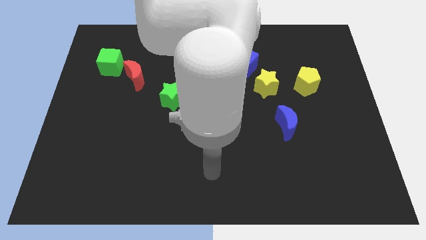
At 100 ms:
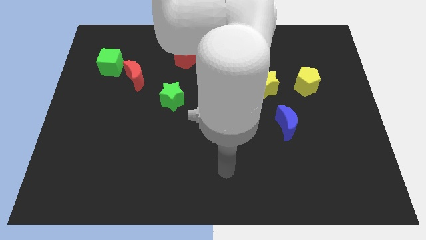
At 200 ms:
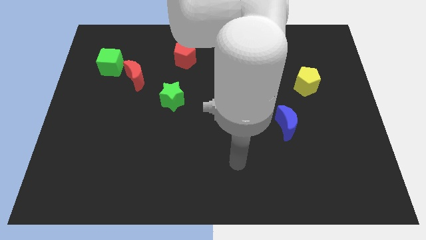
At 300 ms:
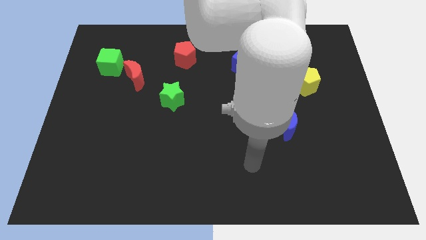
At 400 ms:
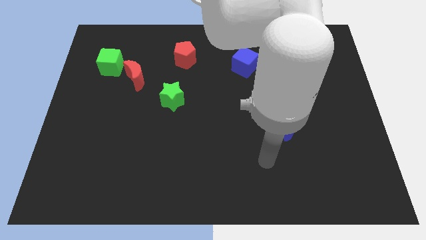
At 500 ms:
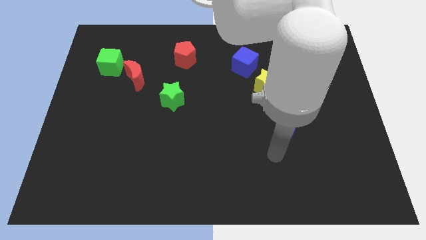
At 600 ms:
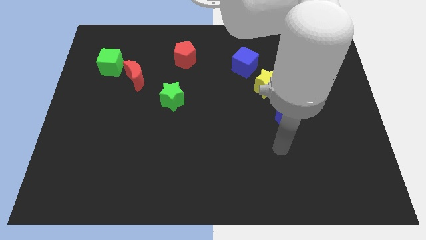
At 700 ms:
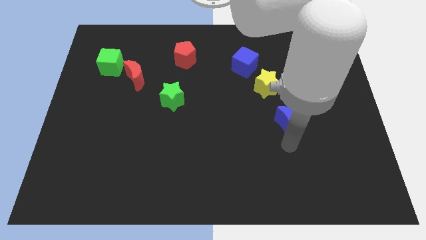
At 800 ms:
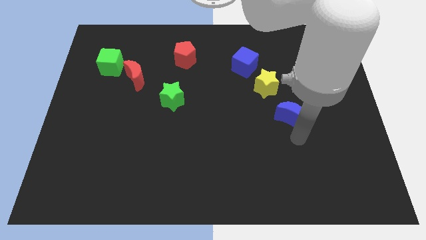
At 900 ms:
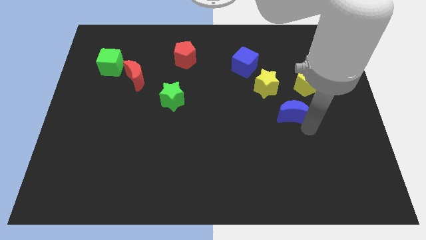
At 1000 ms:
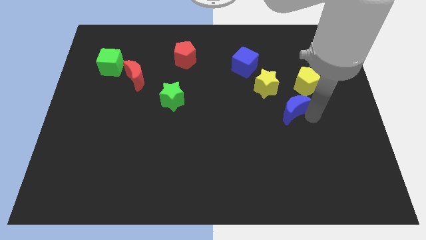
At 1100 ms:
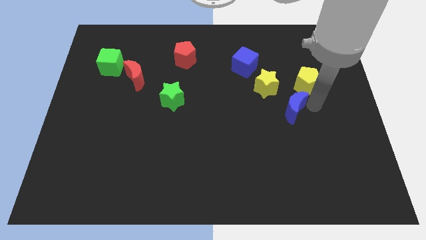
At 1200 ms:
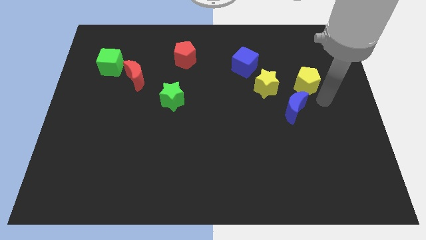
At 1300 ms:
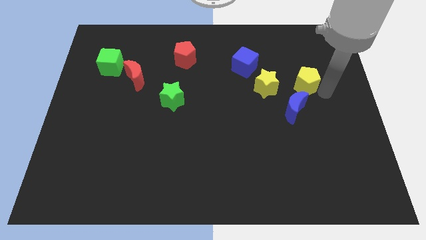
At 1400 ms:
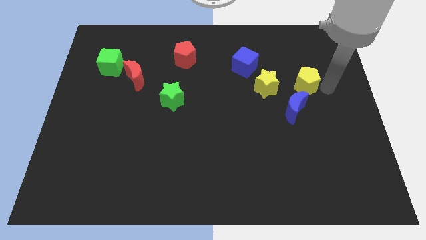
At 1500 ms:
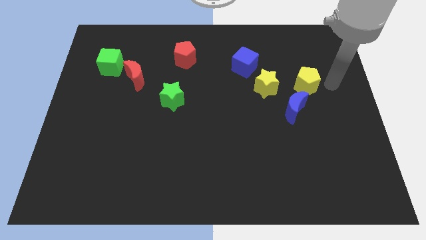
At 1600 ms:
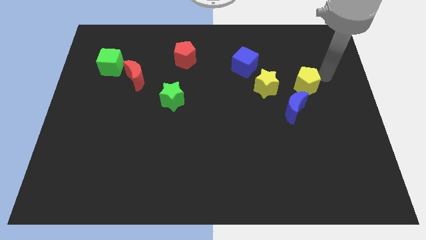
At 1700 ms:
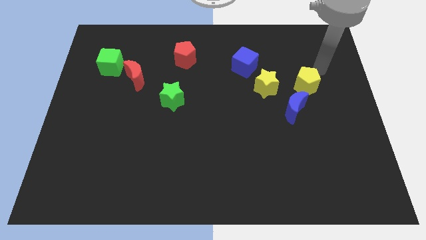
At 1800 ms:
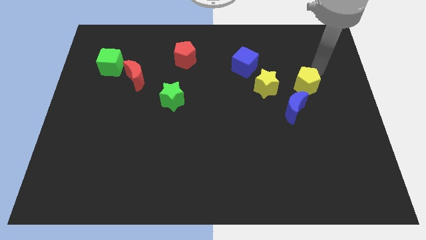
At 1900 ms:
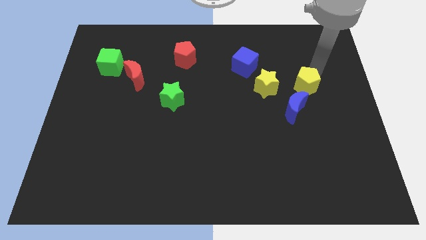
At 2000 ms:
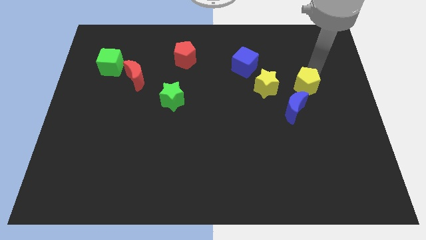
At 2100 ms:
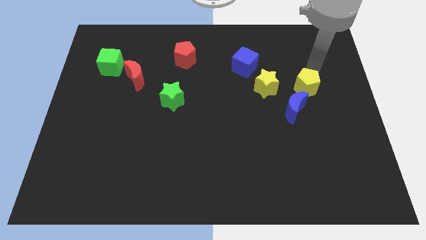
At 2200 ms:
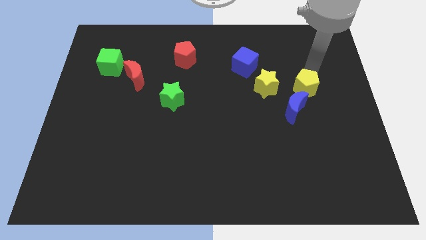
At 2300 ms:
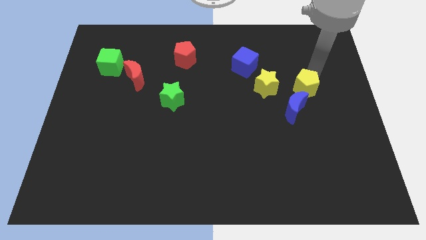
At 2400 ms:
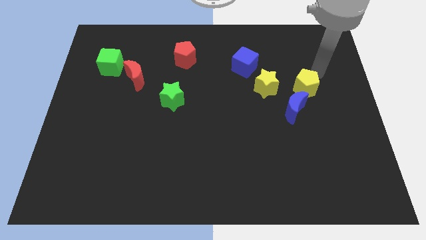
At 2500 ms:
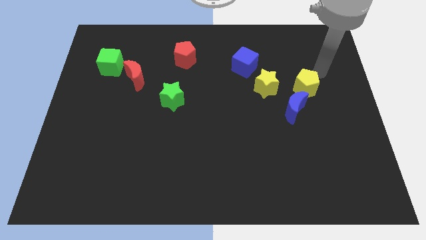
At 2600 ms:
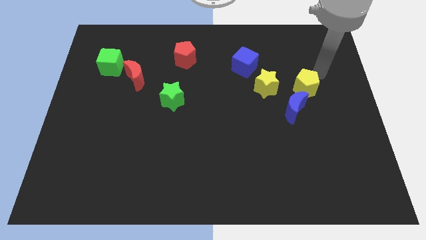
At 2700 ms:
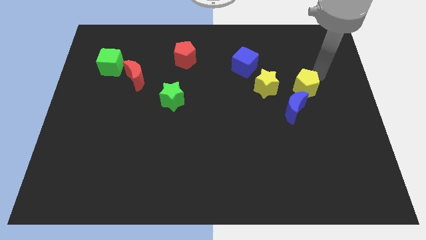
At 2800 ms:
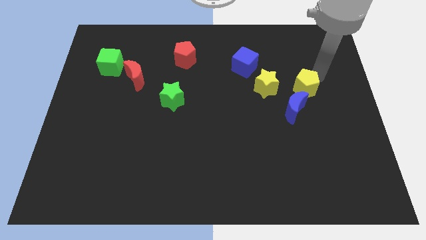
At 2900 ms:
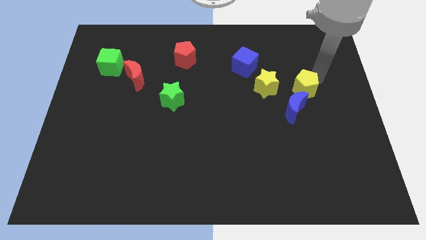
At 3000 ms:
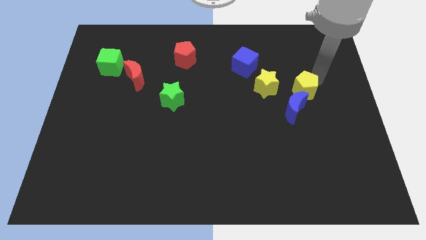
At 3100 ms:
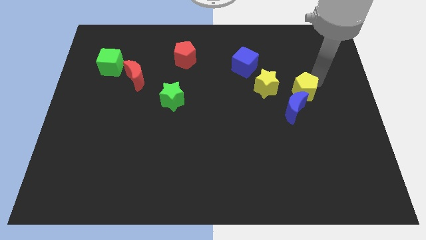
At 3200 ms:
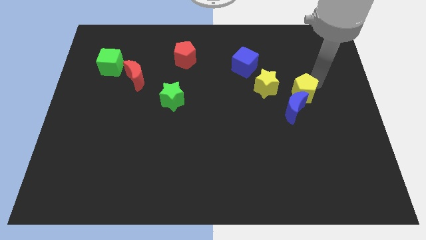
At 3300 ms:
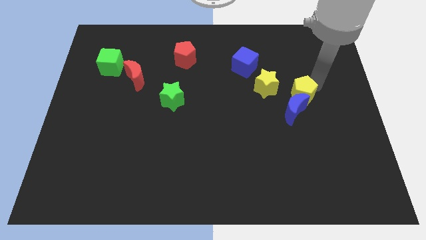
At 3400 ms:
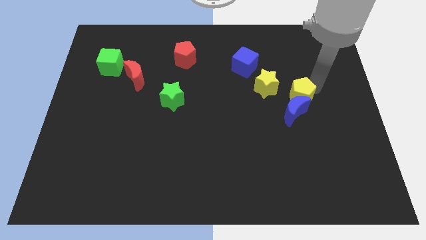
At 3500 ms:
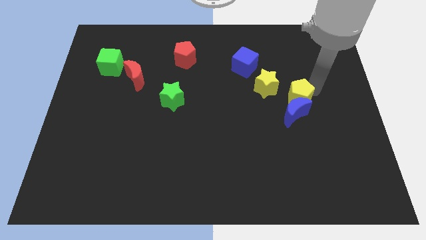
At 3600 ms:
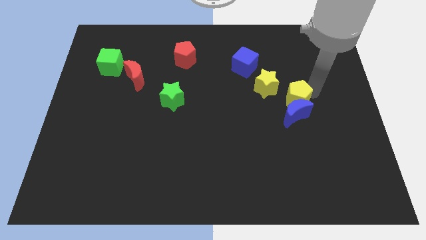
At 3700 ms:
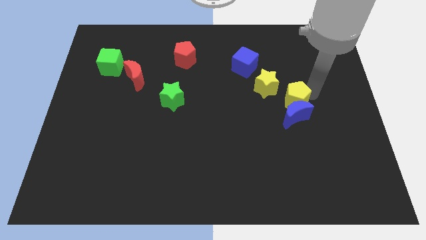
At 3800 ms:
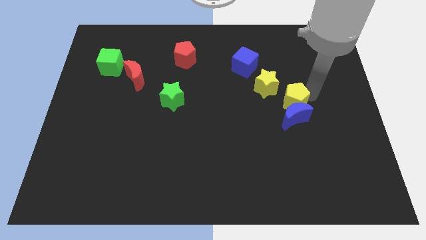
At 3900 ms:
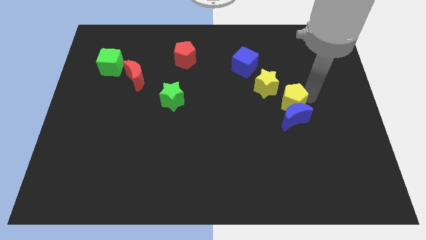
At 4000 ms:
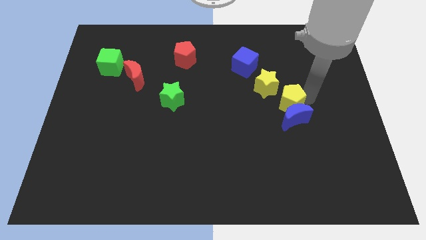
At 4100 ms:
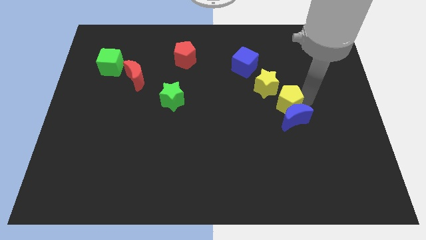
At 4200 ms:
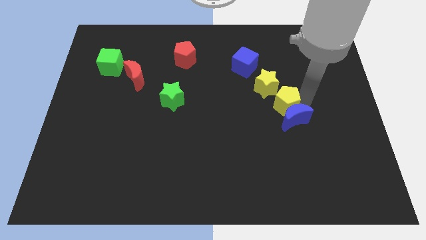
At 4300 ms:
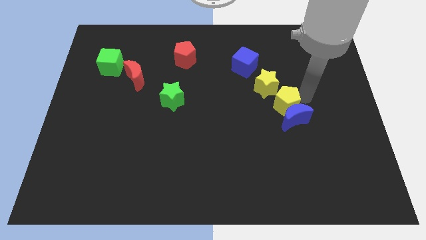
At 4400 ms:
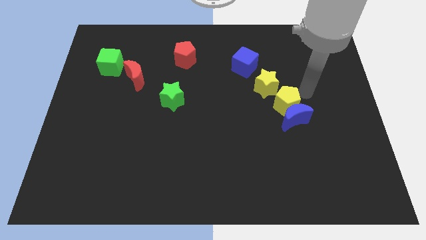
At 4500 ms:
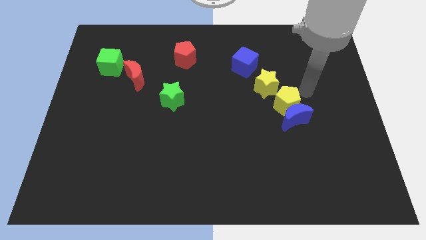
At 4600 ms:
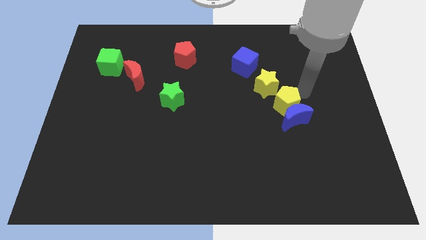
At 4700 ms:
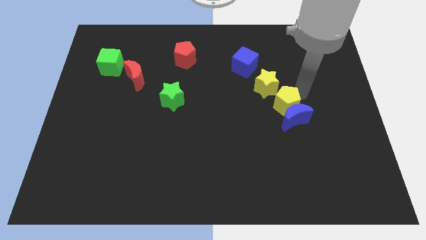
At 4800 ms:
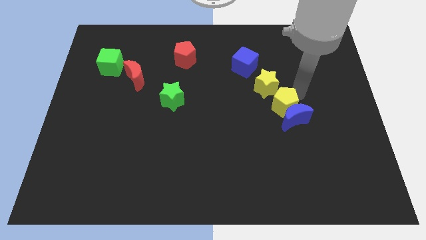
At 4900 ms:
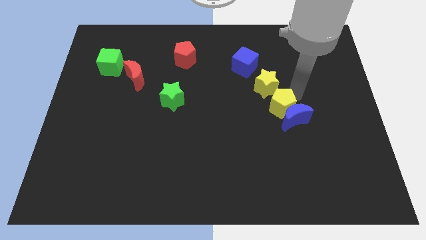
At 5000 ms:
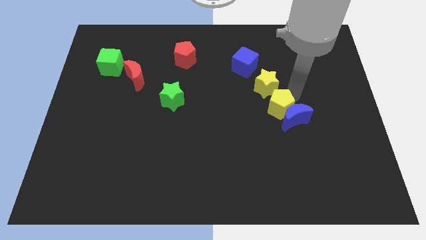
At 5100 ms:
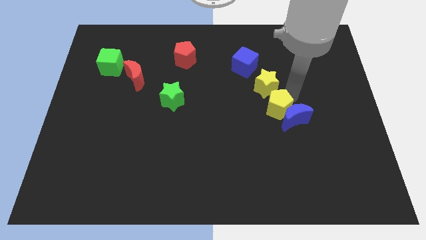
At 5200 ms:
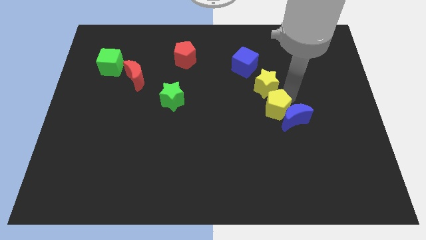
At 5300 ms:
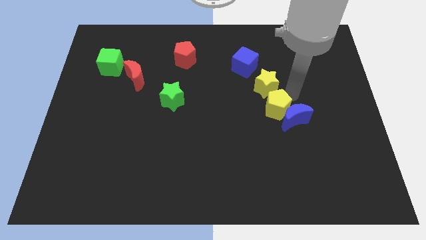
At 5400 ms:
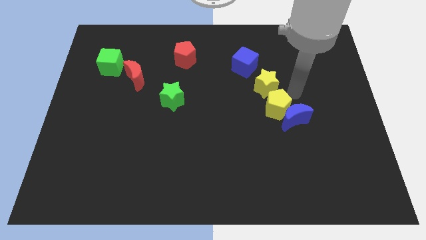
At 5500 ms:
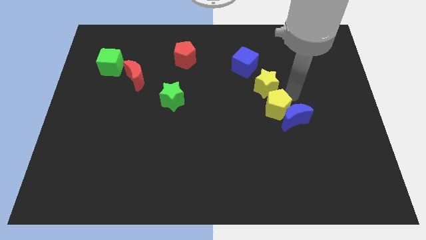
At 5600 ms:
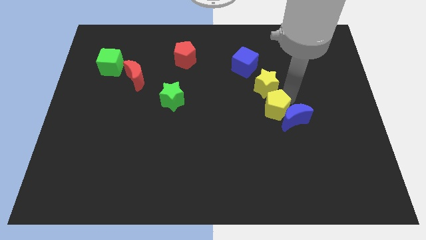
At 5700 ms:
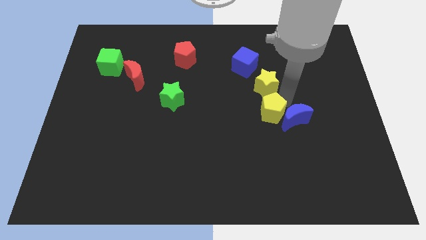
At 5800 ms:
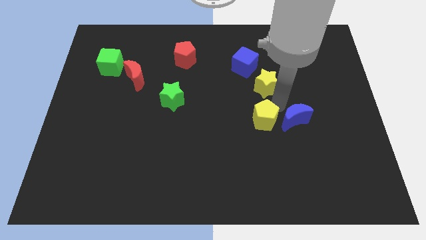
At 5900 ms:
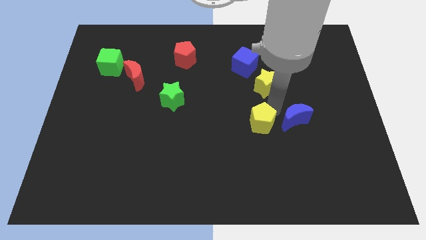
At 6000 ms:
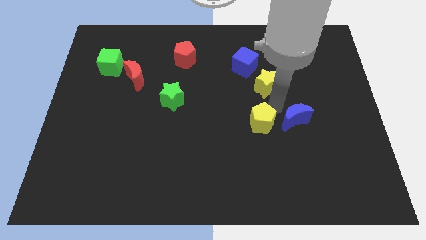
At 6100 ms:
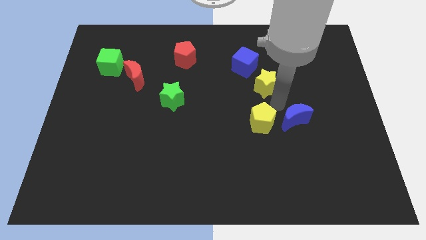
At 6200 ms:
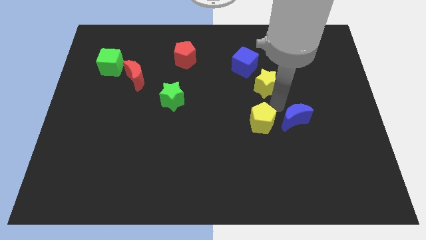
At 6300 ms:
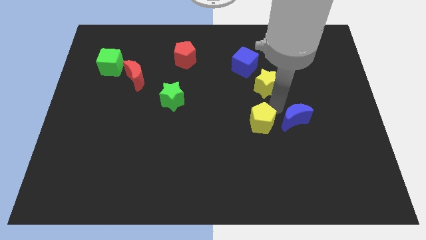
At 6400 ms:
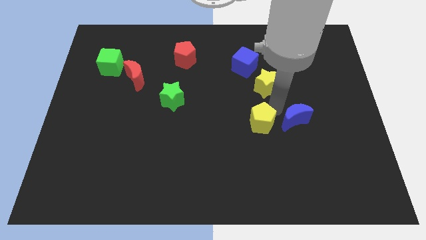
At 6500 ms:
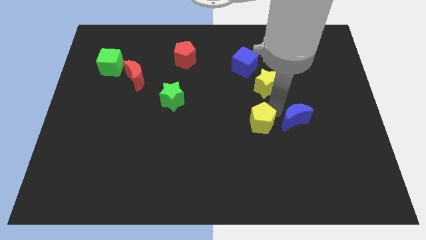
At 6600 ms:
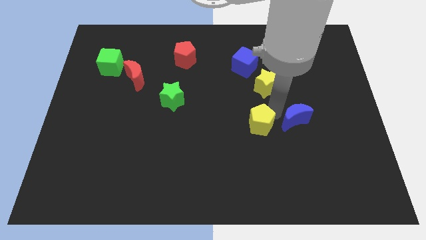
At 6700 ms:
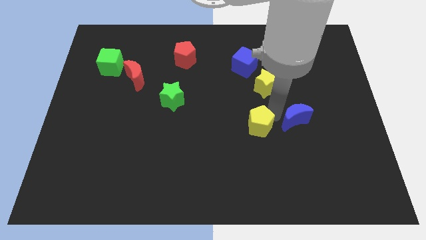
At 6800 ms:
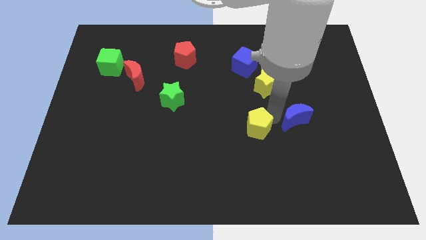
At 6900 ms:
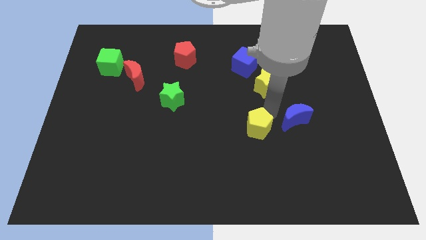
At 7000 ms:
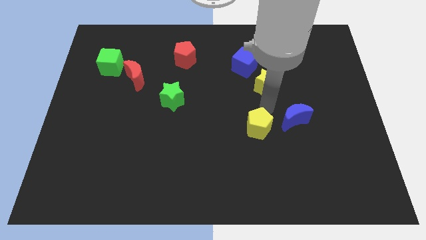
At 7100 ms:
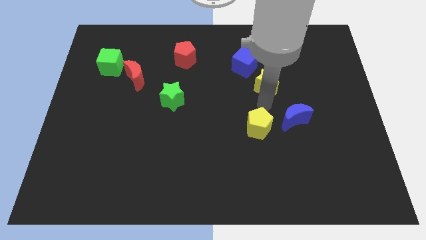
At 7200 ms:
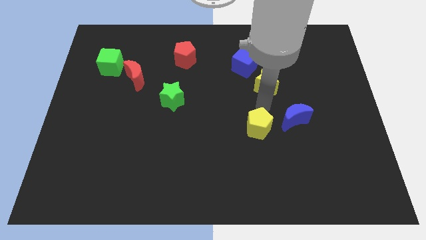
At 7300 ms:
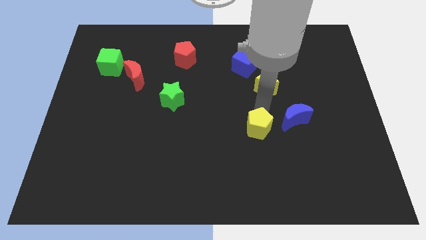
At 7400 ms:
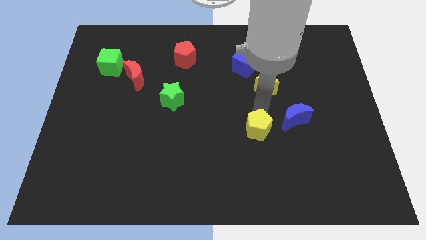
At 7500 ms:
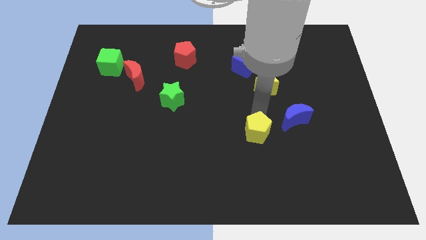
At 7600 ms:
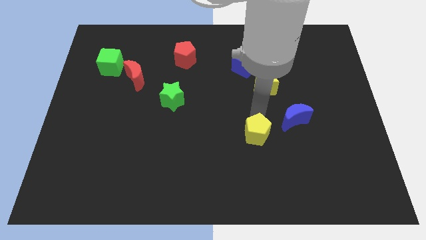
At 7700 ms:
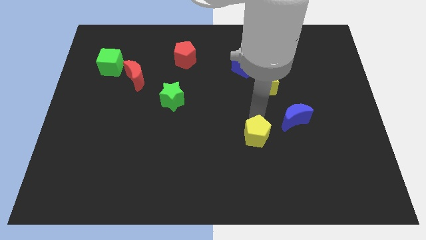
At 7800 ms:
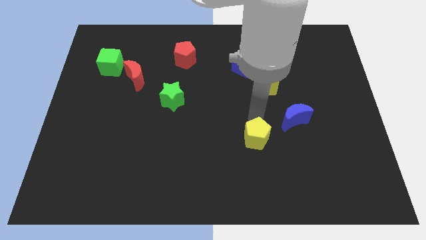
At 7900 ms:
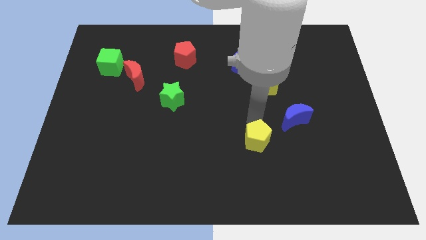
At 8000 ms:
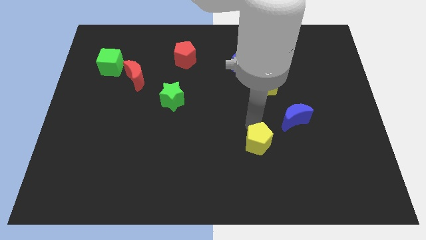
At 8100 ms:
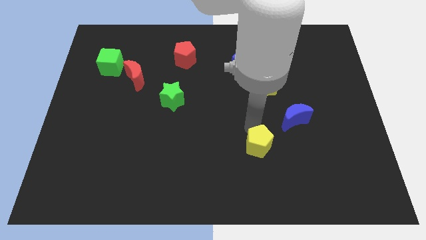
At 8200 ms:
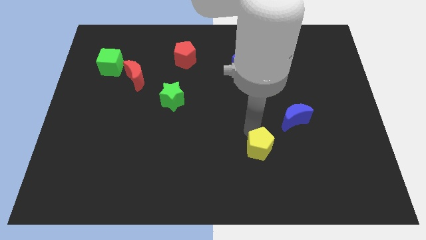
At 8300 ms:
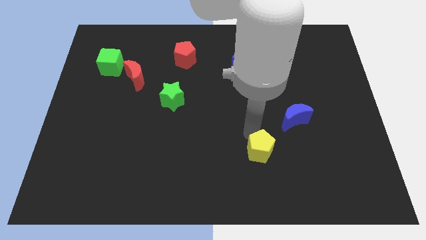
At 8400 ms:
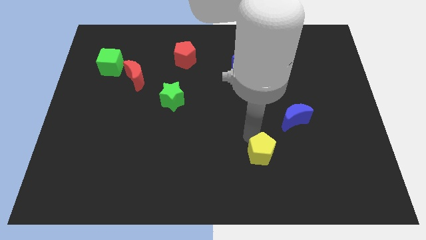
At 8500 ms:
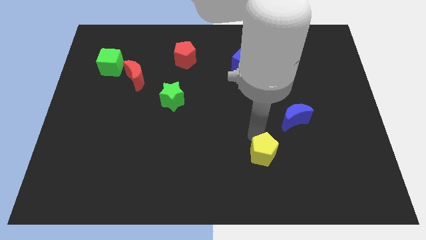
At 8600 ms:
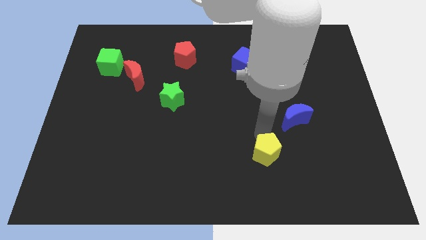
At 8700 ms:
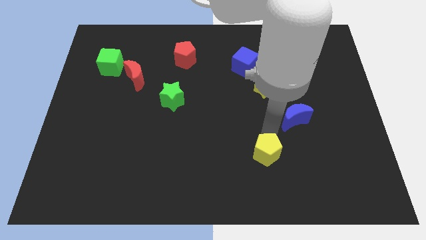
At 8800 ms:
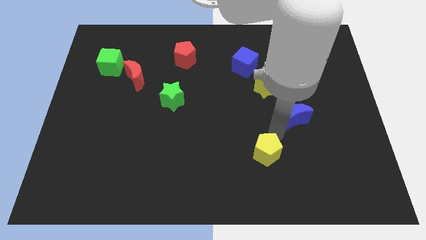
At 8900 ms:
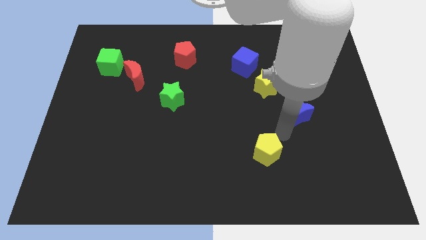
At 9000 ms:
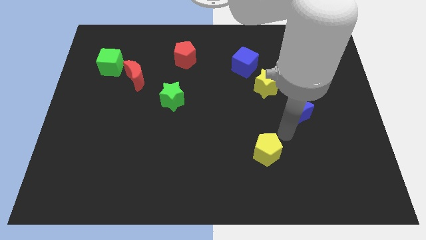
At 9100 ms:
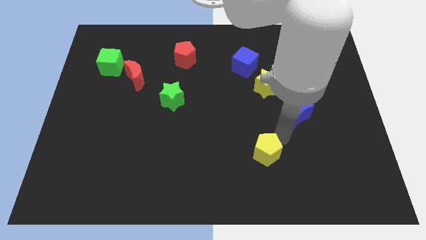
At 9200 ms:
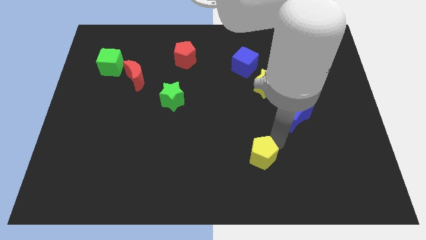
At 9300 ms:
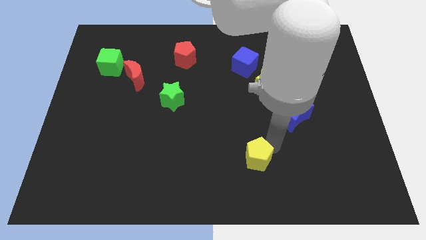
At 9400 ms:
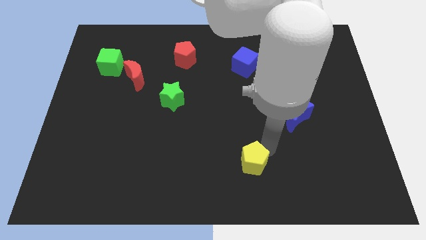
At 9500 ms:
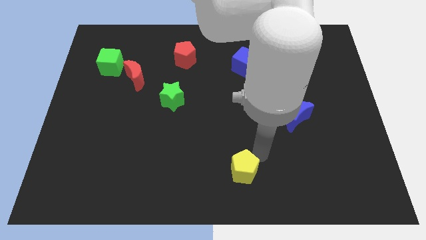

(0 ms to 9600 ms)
move the yellow pentagon to the bottom side
